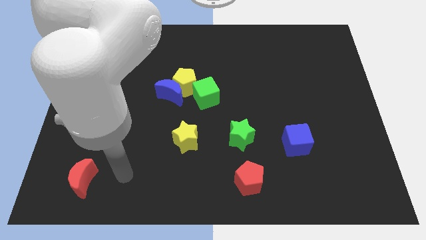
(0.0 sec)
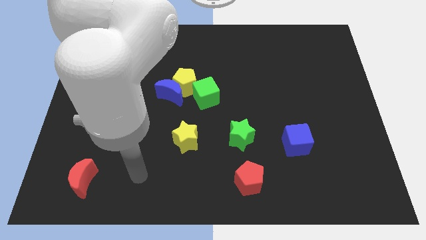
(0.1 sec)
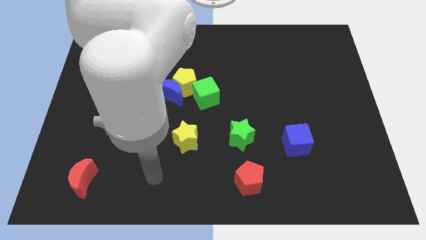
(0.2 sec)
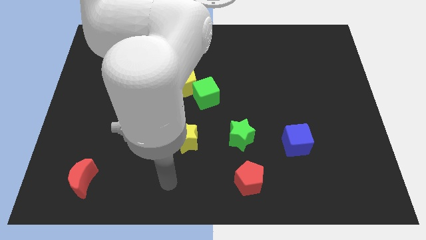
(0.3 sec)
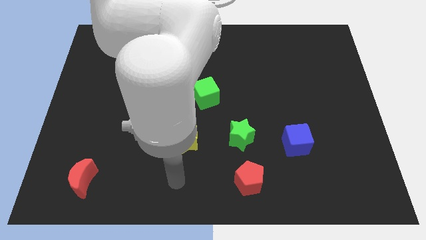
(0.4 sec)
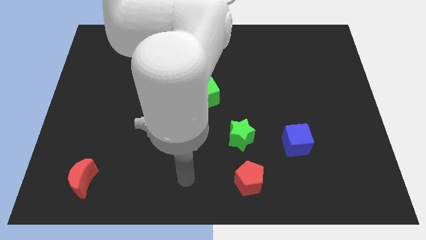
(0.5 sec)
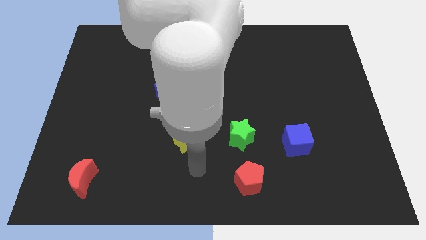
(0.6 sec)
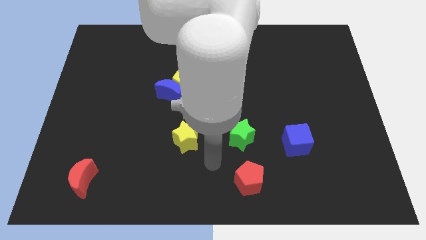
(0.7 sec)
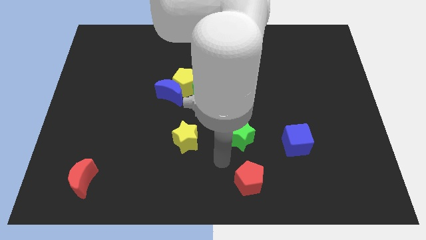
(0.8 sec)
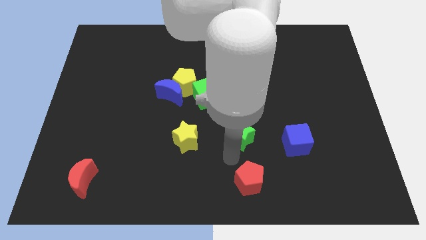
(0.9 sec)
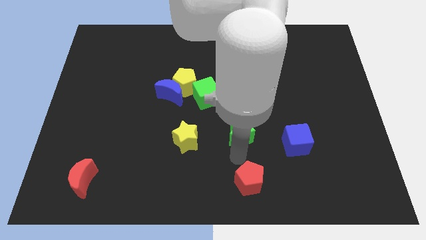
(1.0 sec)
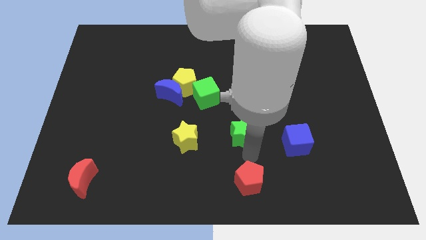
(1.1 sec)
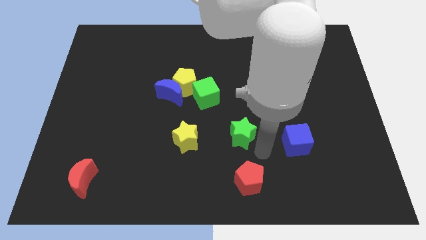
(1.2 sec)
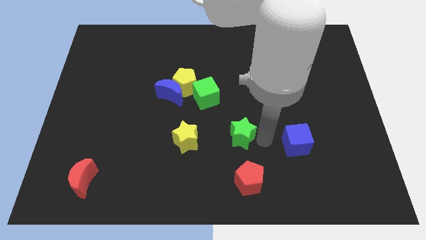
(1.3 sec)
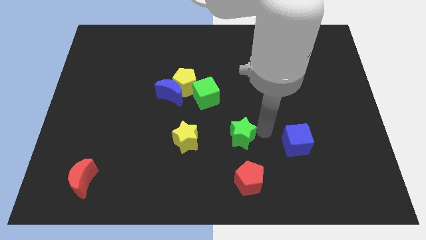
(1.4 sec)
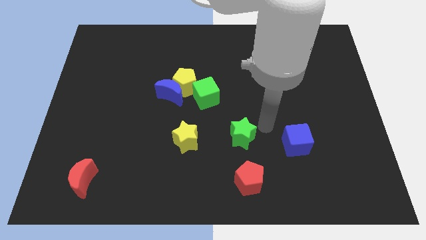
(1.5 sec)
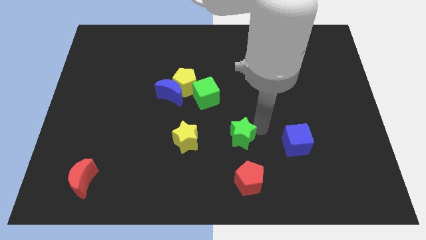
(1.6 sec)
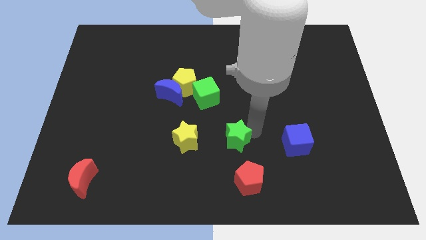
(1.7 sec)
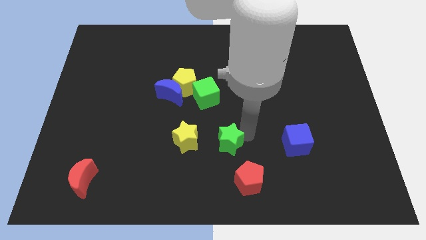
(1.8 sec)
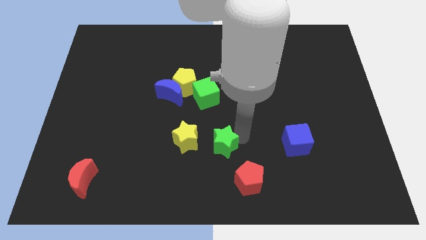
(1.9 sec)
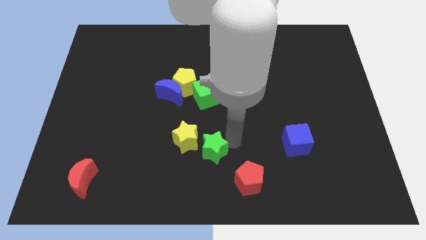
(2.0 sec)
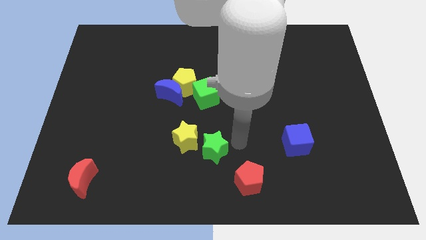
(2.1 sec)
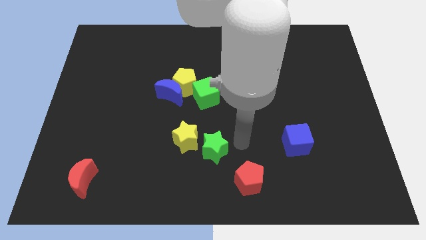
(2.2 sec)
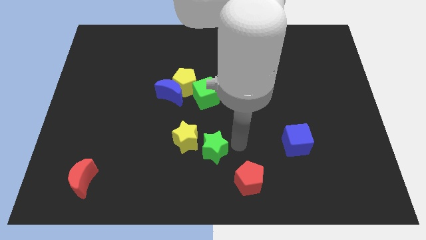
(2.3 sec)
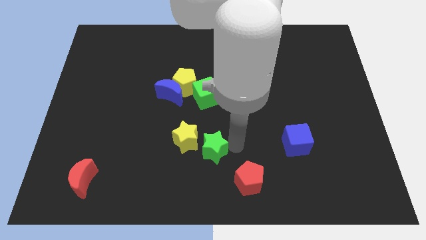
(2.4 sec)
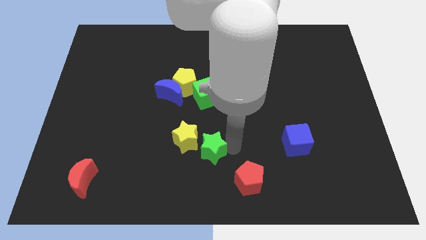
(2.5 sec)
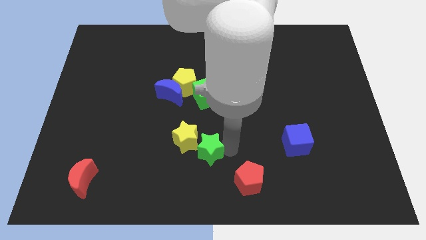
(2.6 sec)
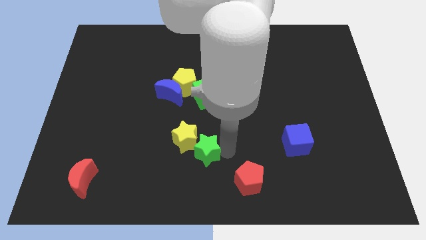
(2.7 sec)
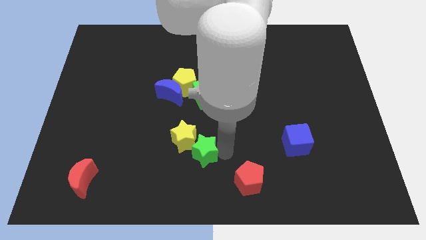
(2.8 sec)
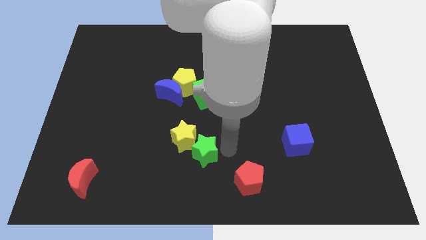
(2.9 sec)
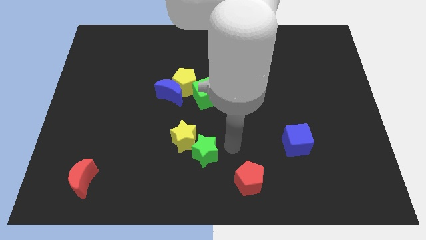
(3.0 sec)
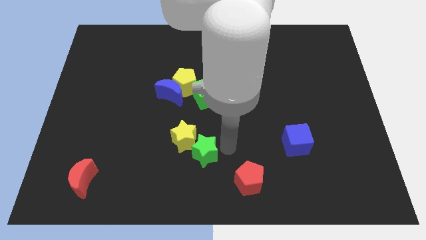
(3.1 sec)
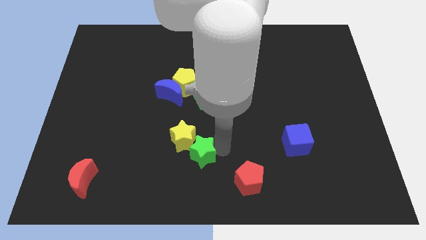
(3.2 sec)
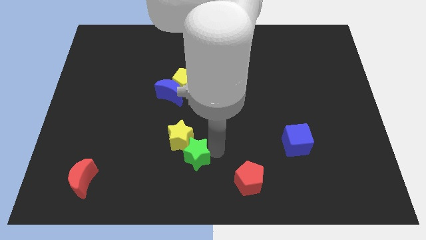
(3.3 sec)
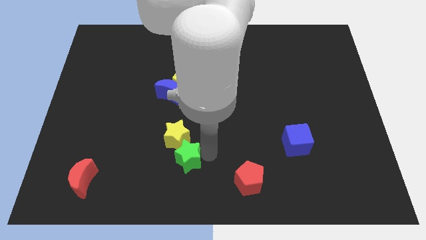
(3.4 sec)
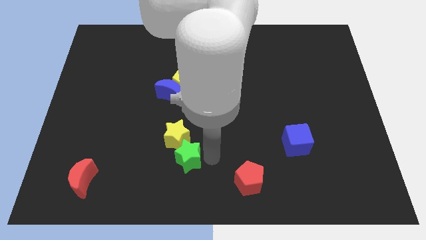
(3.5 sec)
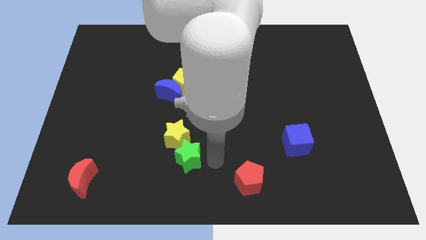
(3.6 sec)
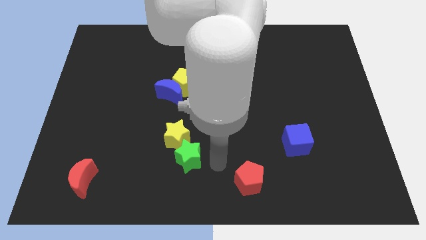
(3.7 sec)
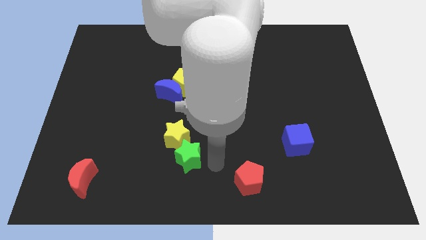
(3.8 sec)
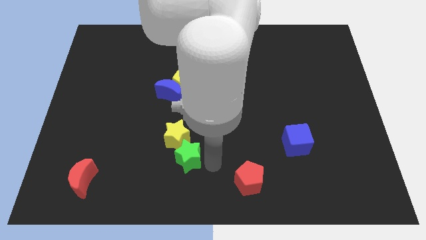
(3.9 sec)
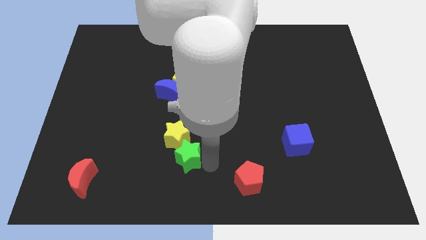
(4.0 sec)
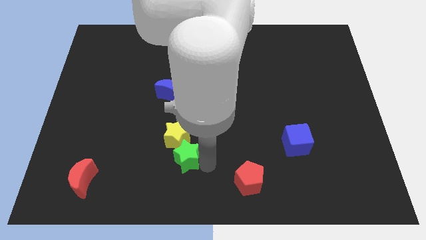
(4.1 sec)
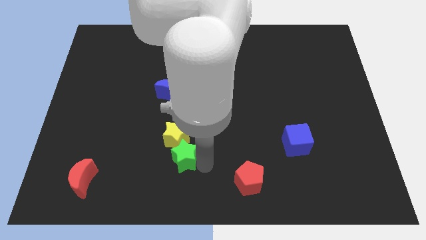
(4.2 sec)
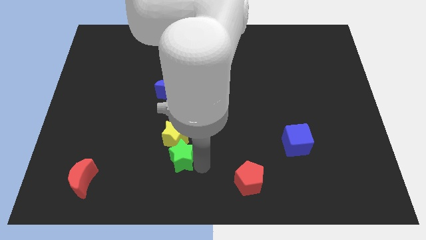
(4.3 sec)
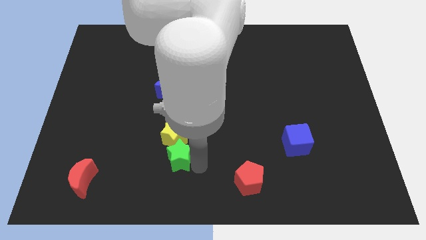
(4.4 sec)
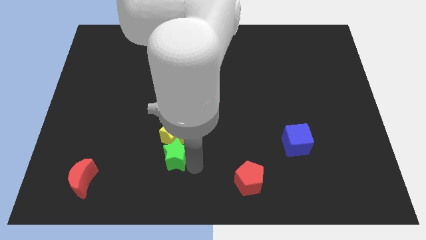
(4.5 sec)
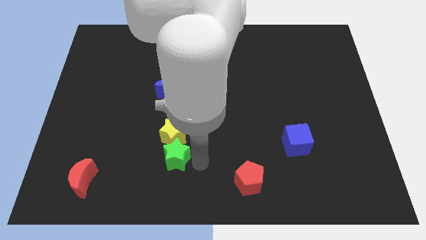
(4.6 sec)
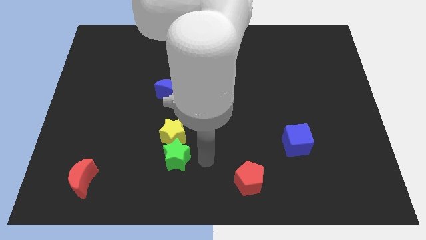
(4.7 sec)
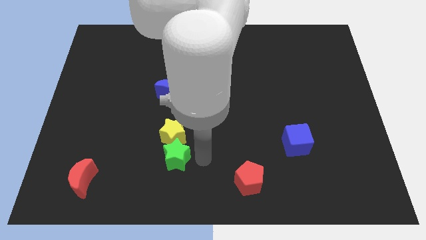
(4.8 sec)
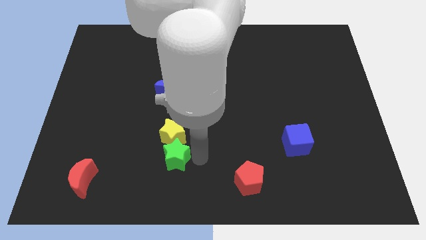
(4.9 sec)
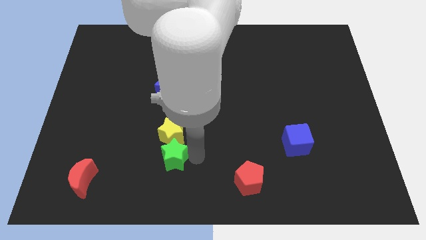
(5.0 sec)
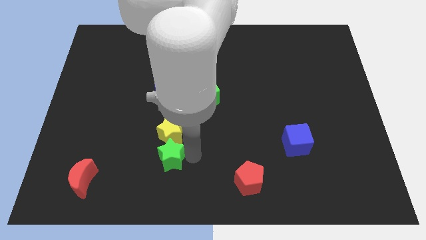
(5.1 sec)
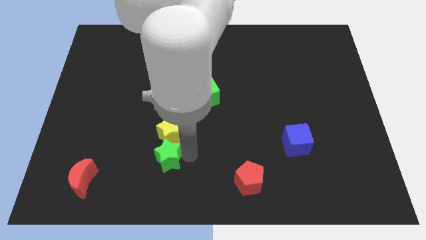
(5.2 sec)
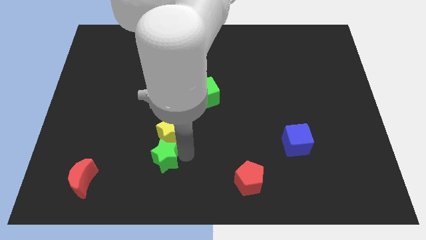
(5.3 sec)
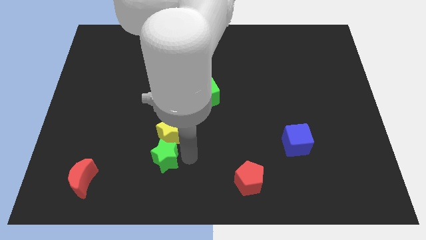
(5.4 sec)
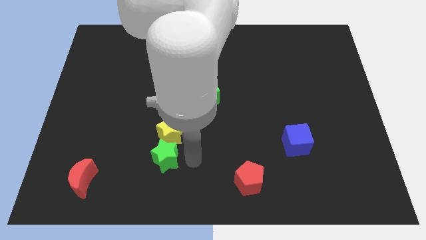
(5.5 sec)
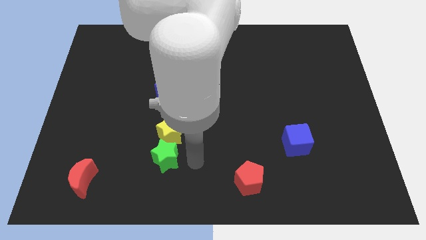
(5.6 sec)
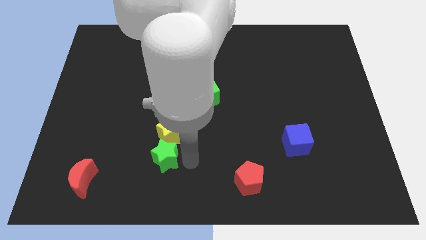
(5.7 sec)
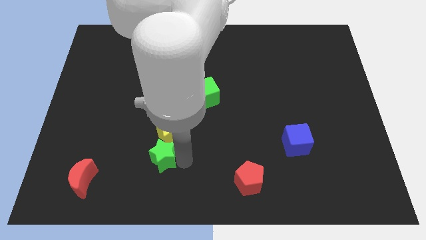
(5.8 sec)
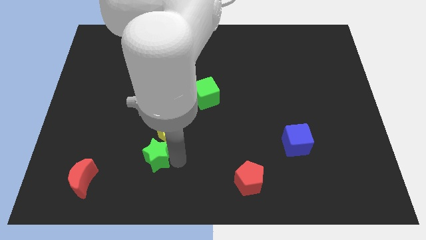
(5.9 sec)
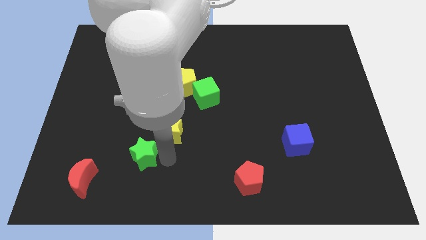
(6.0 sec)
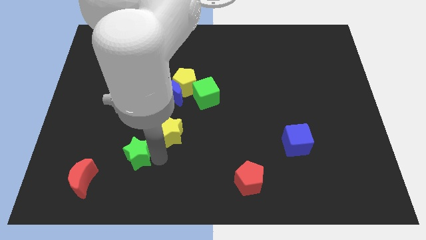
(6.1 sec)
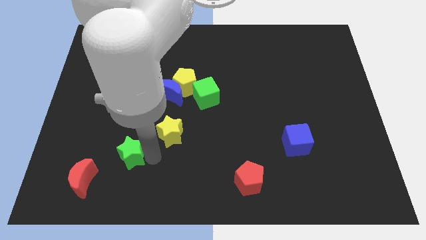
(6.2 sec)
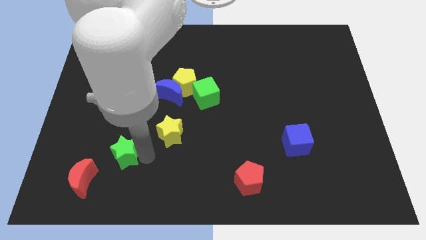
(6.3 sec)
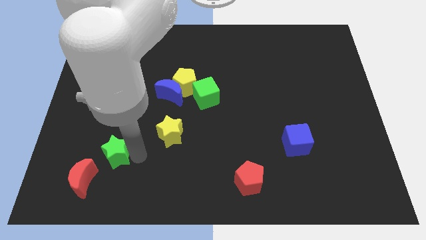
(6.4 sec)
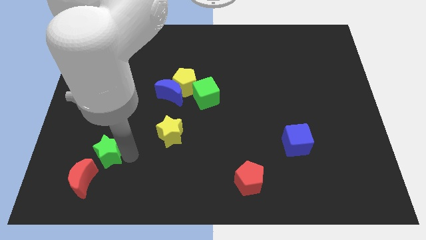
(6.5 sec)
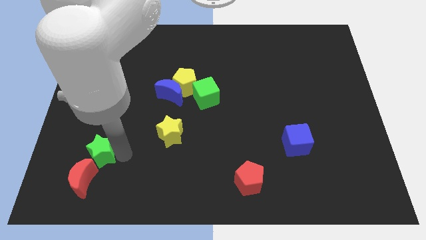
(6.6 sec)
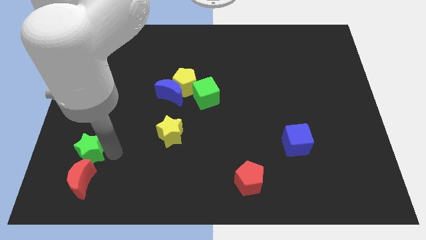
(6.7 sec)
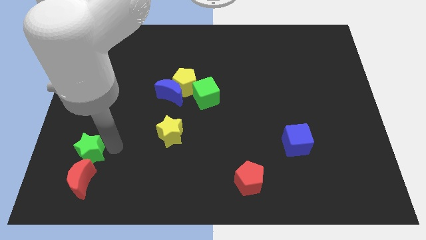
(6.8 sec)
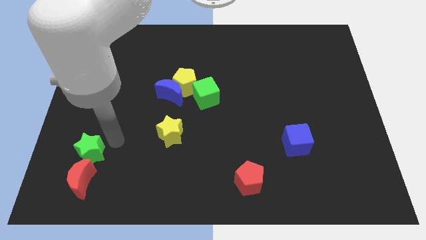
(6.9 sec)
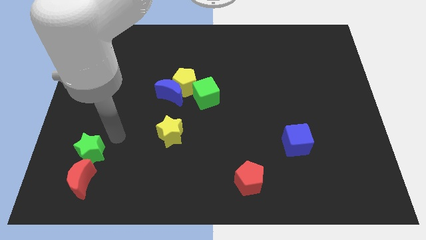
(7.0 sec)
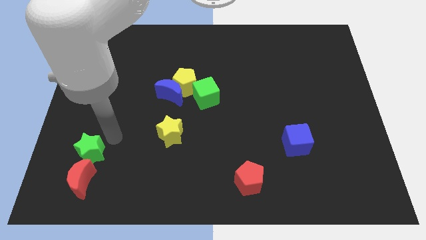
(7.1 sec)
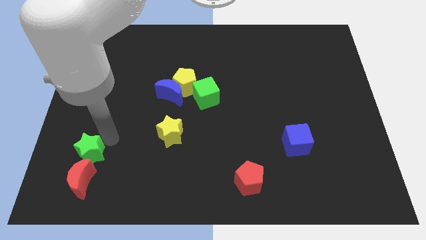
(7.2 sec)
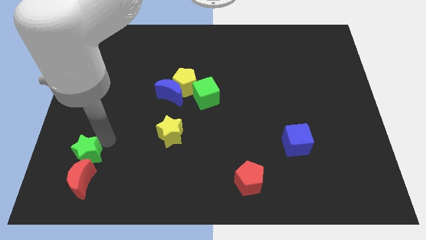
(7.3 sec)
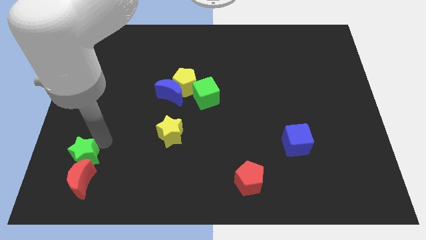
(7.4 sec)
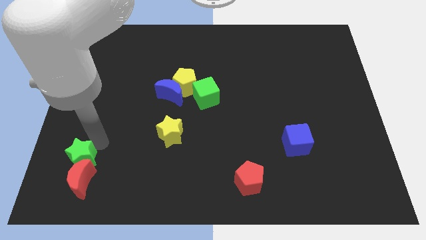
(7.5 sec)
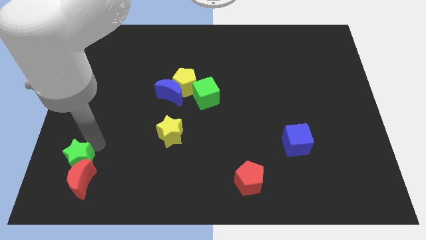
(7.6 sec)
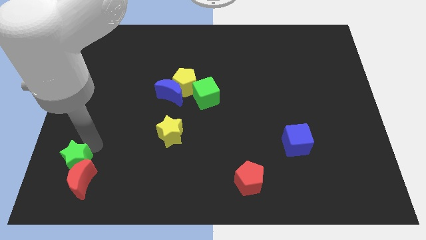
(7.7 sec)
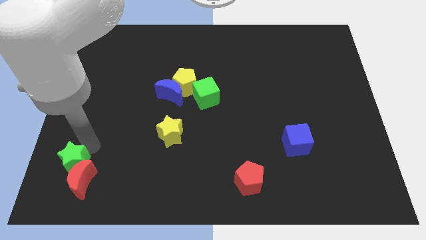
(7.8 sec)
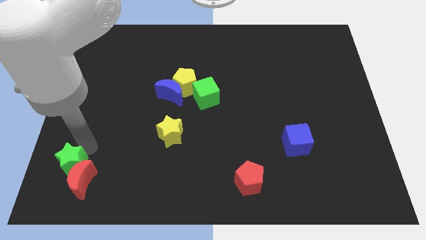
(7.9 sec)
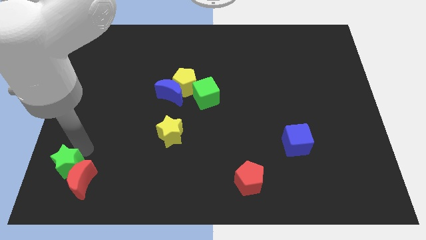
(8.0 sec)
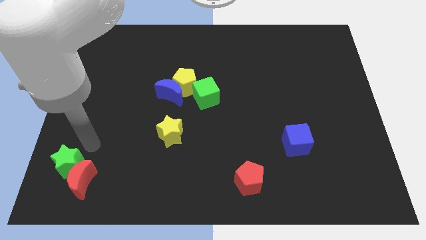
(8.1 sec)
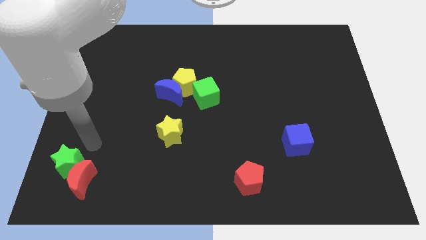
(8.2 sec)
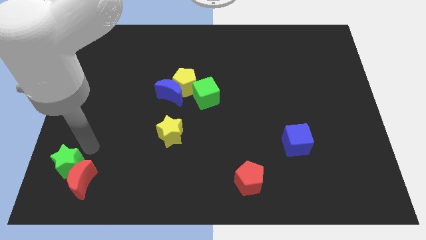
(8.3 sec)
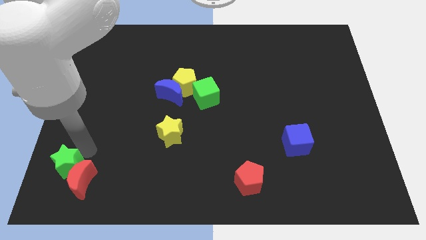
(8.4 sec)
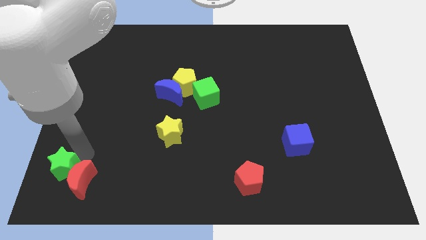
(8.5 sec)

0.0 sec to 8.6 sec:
slide the green star to the lower left corner
